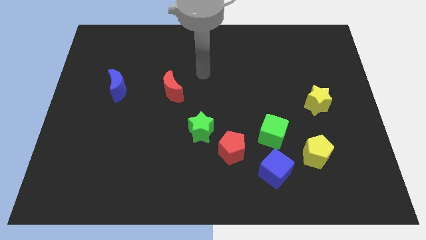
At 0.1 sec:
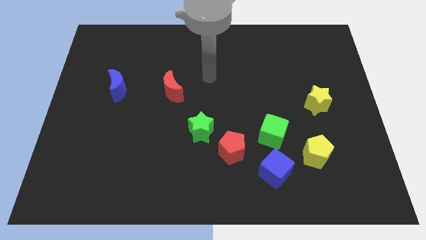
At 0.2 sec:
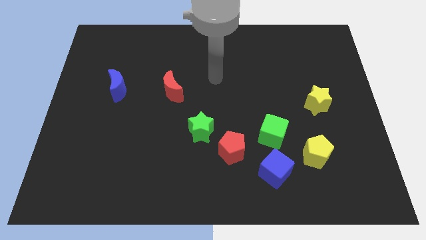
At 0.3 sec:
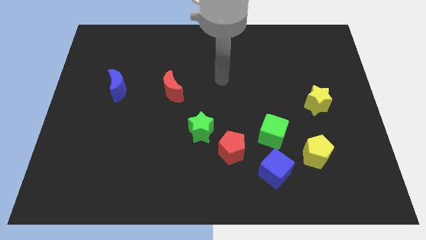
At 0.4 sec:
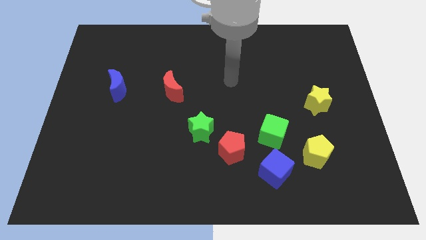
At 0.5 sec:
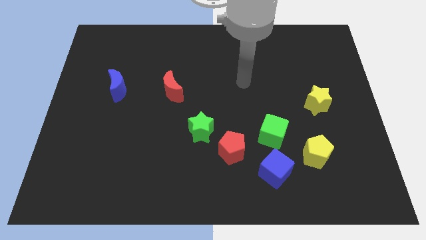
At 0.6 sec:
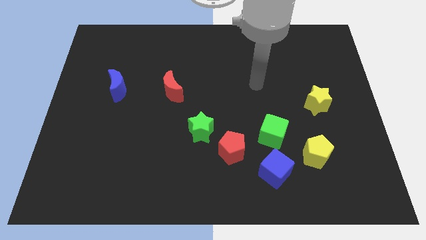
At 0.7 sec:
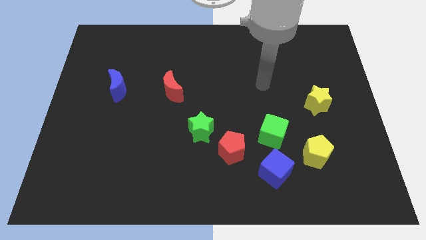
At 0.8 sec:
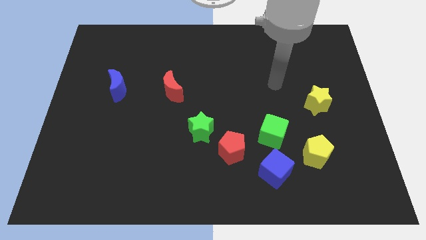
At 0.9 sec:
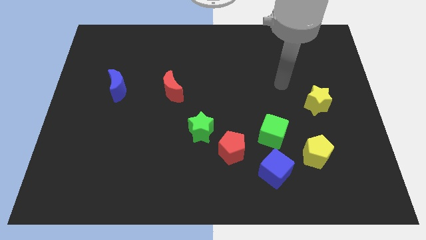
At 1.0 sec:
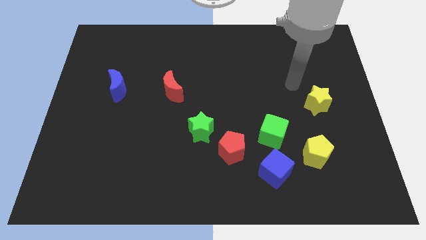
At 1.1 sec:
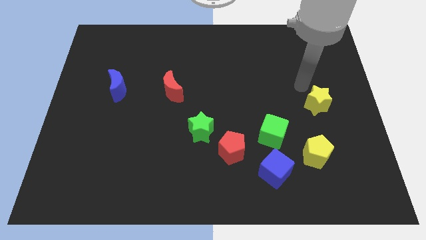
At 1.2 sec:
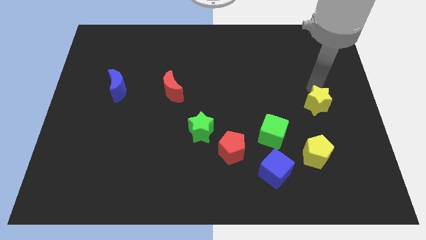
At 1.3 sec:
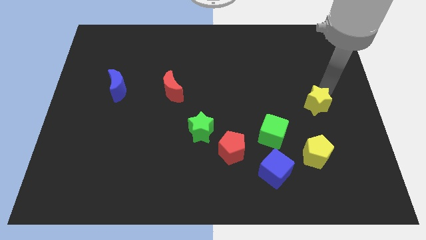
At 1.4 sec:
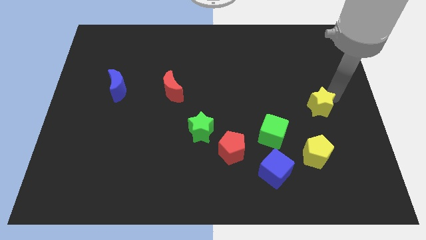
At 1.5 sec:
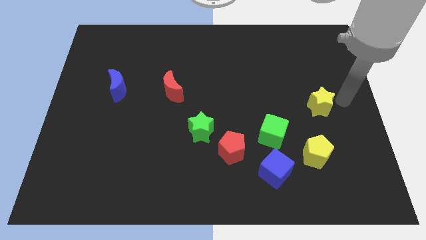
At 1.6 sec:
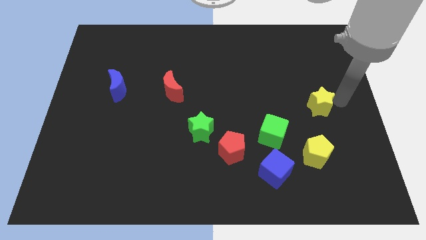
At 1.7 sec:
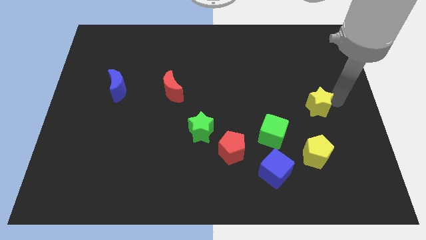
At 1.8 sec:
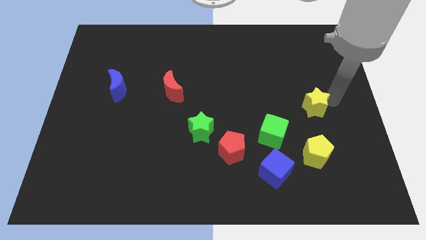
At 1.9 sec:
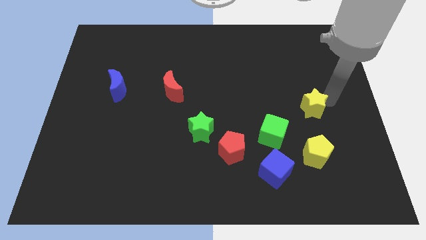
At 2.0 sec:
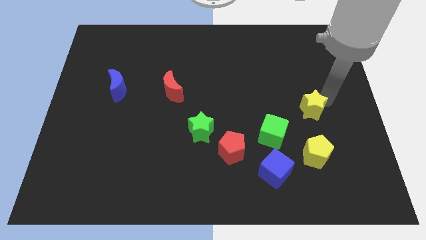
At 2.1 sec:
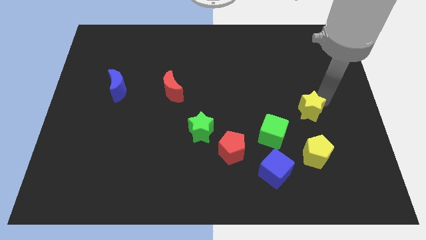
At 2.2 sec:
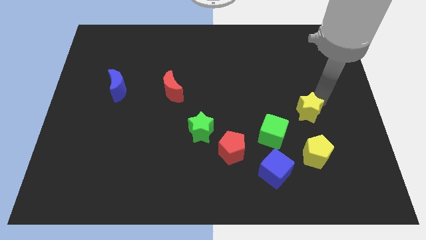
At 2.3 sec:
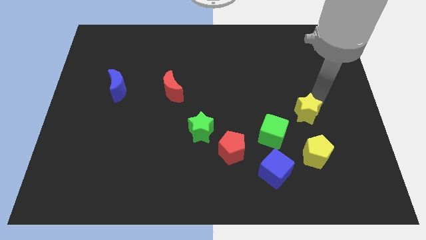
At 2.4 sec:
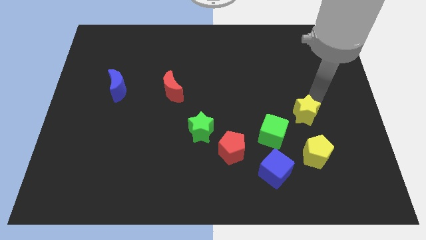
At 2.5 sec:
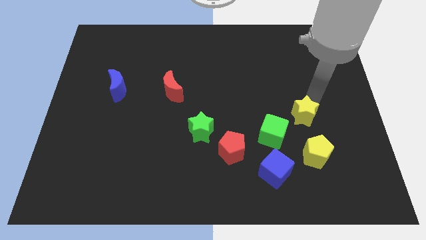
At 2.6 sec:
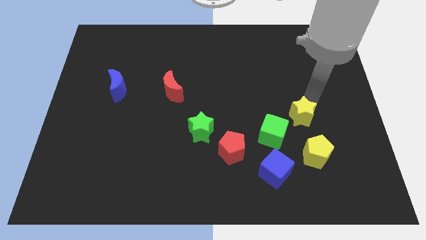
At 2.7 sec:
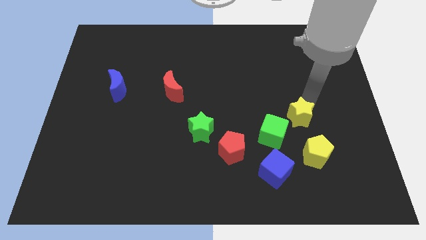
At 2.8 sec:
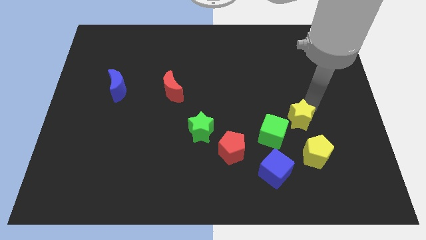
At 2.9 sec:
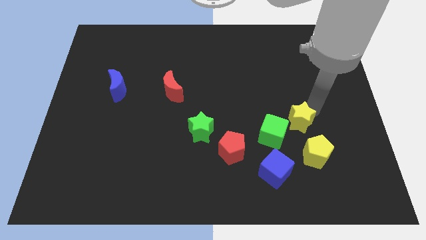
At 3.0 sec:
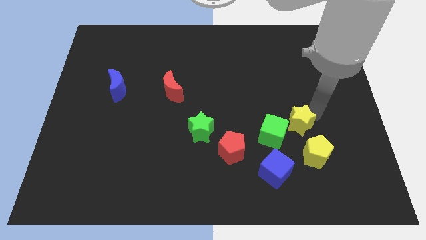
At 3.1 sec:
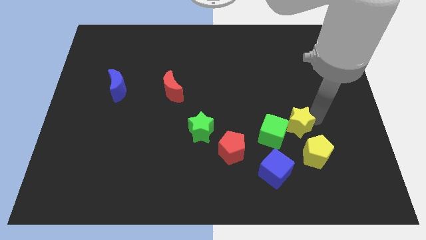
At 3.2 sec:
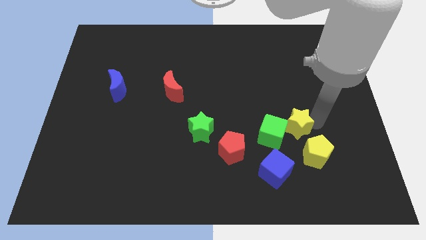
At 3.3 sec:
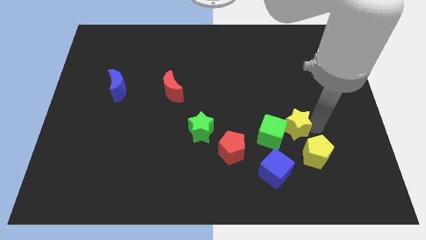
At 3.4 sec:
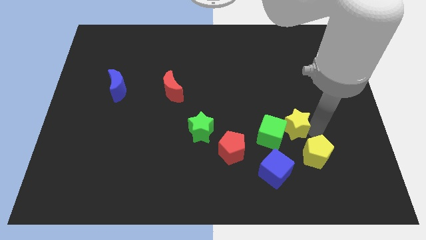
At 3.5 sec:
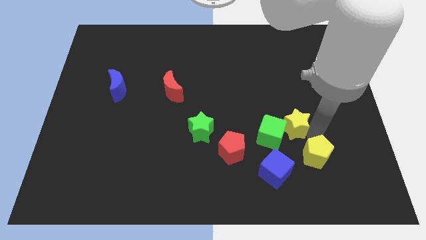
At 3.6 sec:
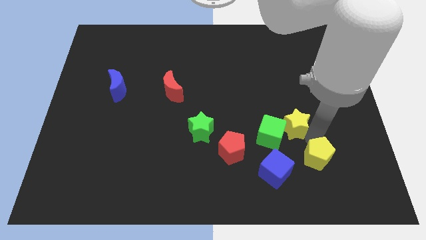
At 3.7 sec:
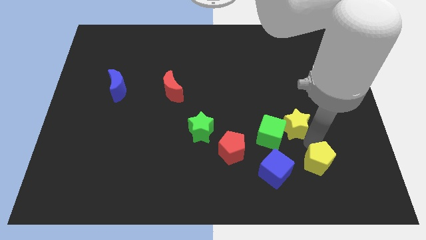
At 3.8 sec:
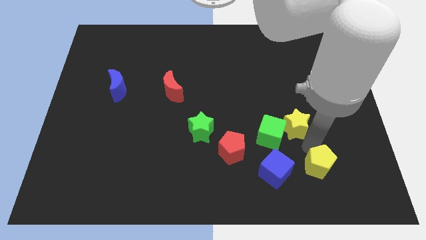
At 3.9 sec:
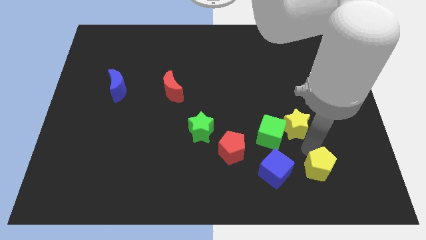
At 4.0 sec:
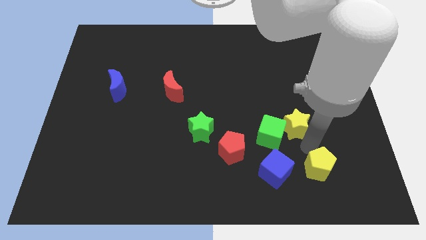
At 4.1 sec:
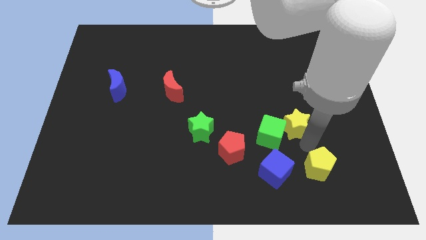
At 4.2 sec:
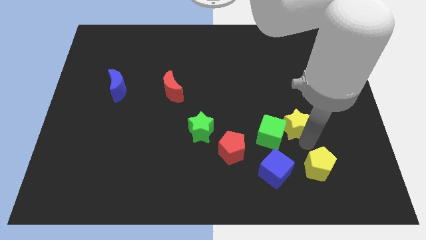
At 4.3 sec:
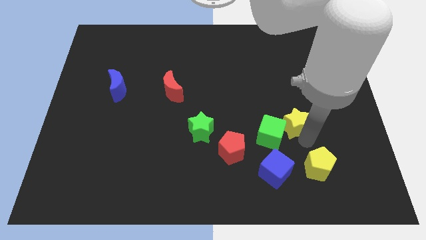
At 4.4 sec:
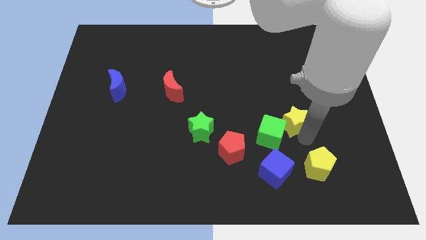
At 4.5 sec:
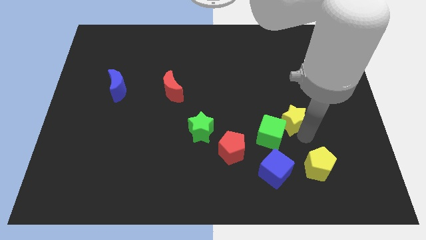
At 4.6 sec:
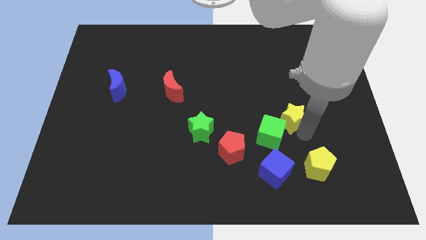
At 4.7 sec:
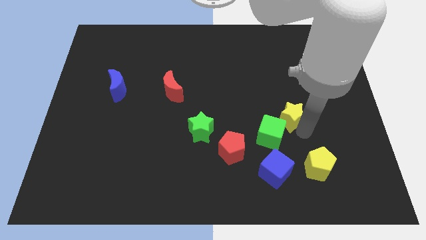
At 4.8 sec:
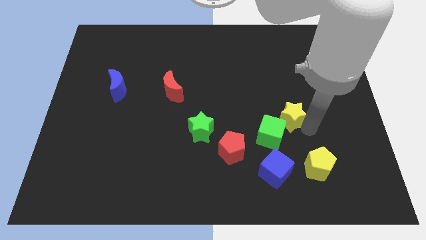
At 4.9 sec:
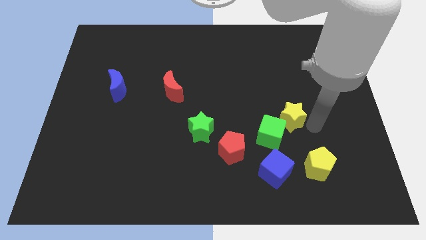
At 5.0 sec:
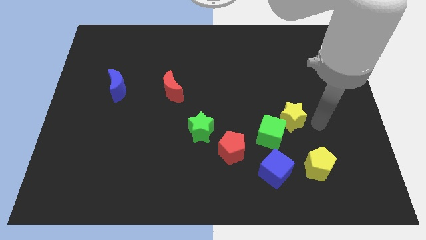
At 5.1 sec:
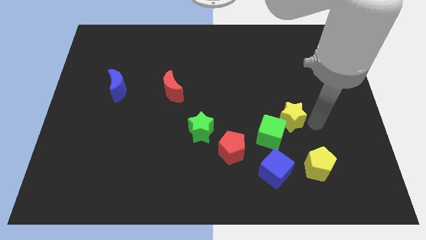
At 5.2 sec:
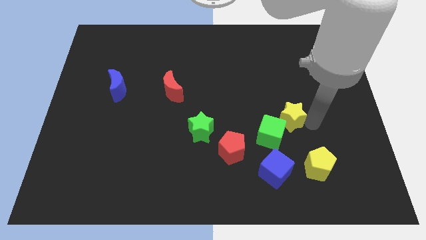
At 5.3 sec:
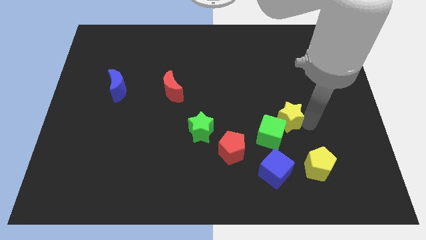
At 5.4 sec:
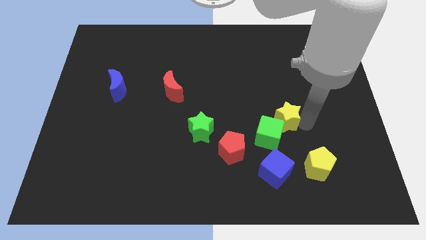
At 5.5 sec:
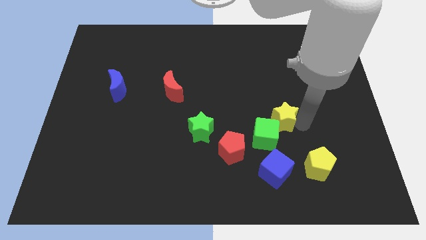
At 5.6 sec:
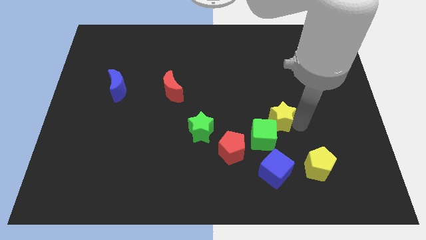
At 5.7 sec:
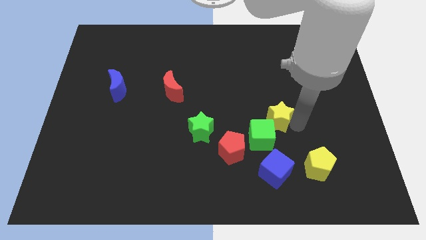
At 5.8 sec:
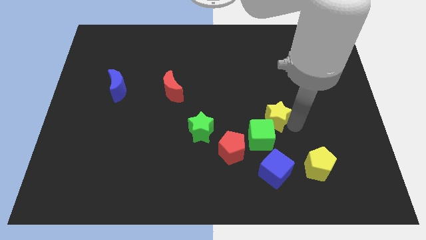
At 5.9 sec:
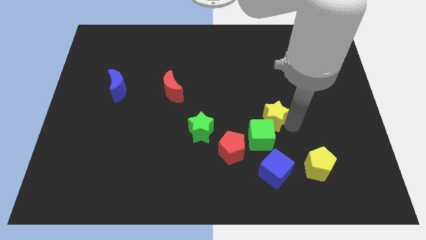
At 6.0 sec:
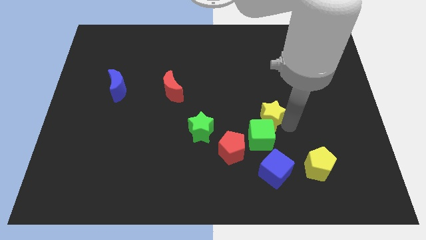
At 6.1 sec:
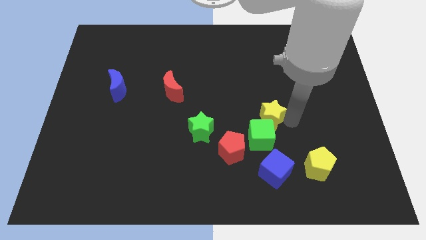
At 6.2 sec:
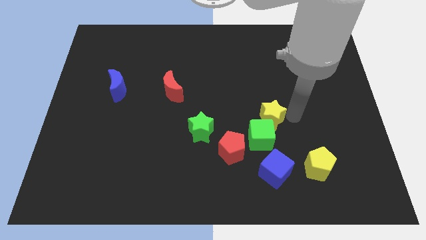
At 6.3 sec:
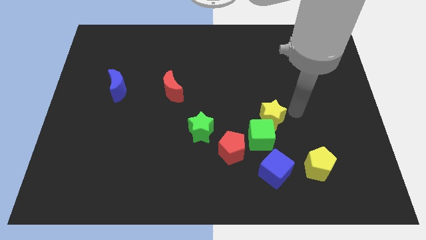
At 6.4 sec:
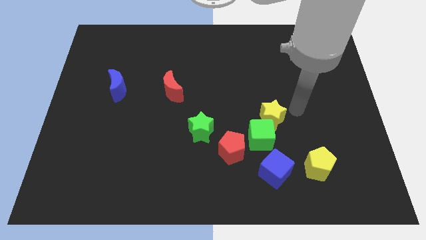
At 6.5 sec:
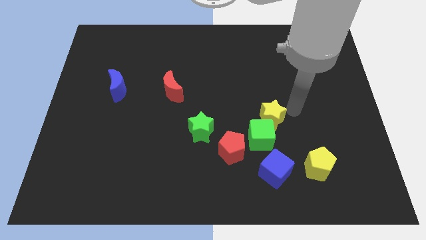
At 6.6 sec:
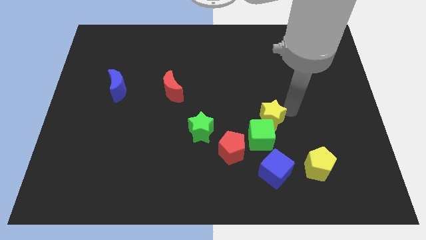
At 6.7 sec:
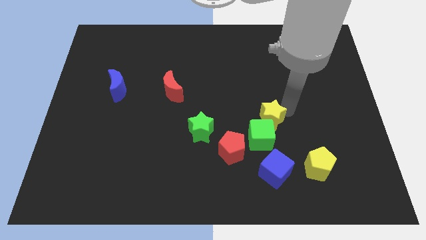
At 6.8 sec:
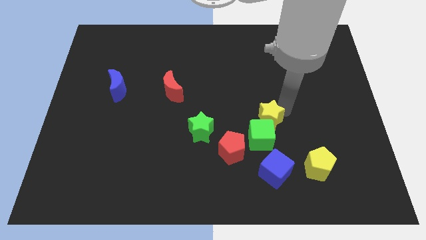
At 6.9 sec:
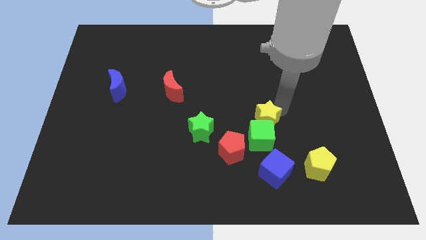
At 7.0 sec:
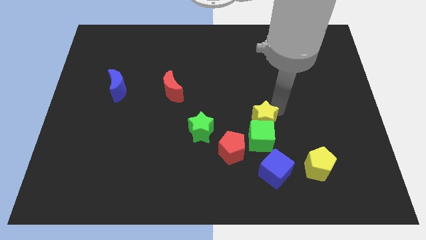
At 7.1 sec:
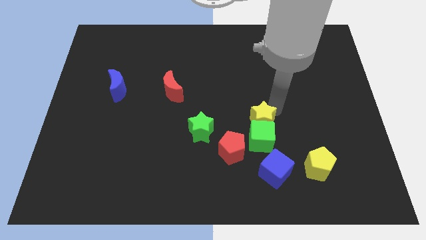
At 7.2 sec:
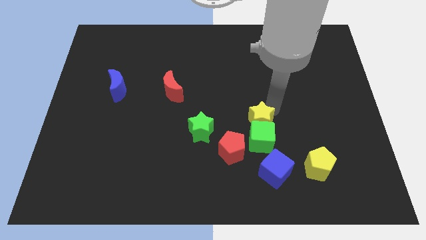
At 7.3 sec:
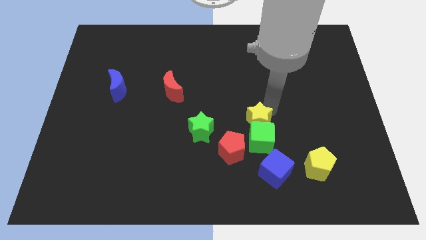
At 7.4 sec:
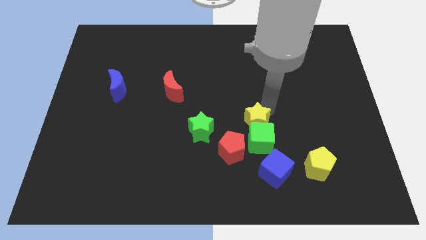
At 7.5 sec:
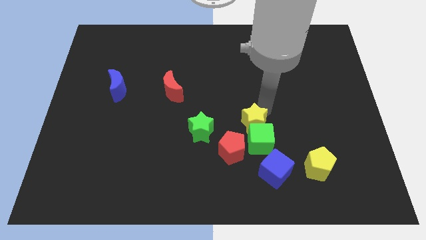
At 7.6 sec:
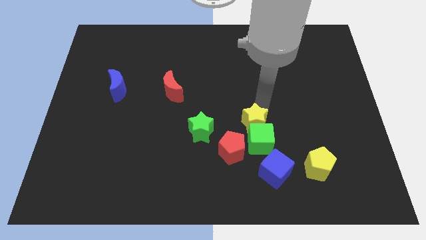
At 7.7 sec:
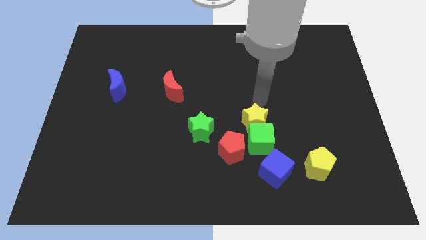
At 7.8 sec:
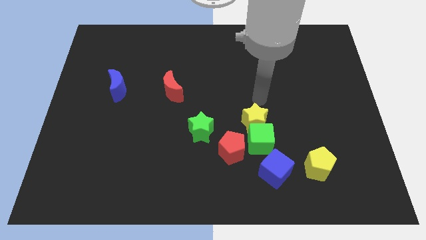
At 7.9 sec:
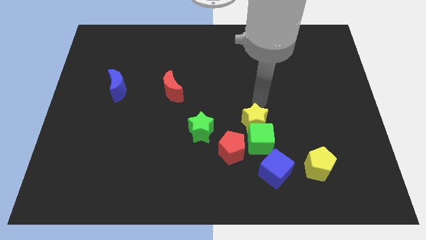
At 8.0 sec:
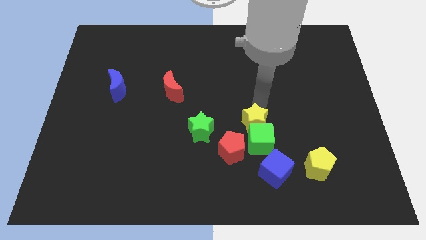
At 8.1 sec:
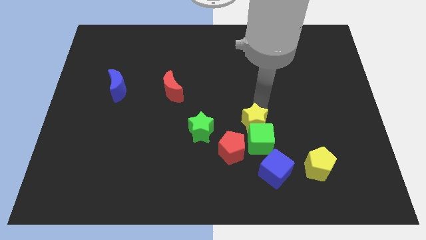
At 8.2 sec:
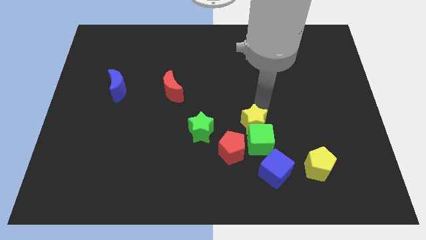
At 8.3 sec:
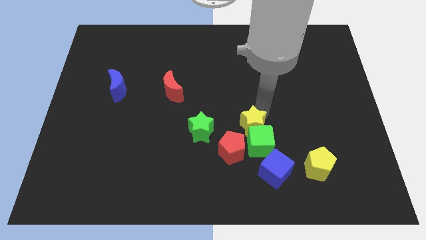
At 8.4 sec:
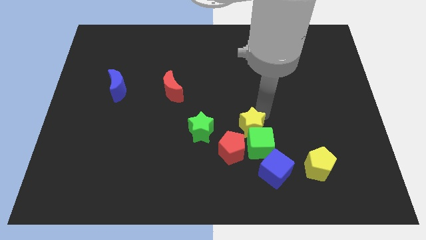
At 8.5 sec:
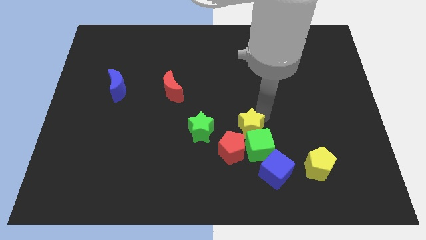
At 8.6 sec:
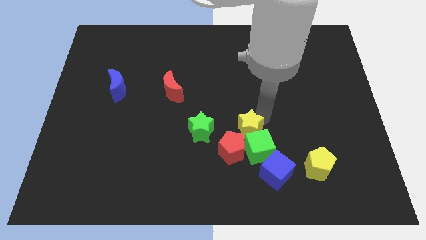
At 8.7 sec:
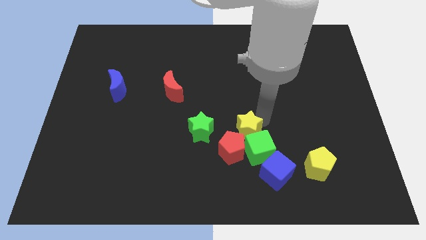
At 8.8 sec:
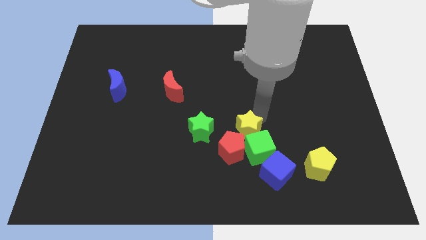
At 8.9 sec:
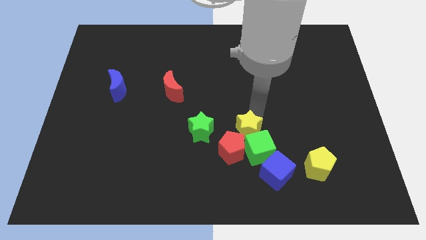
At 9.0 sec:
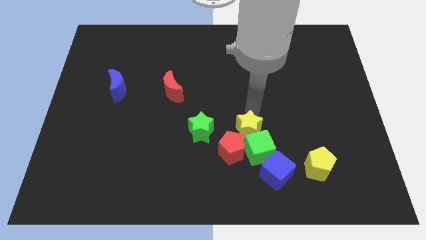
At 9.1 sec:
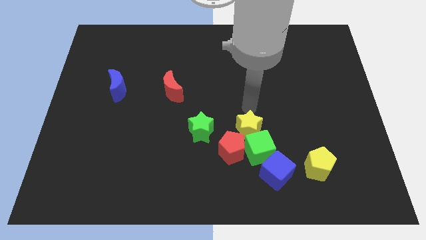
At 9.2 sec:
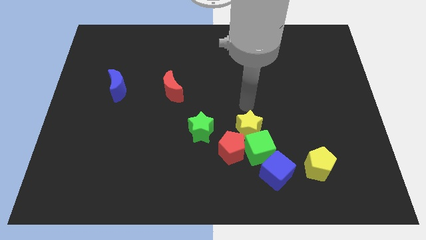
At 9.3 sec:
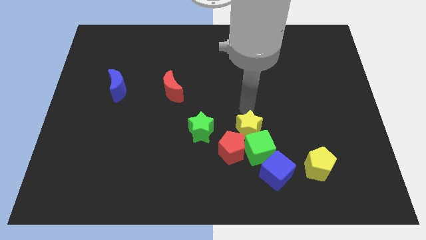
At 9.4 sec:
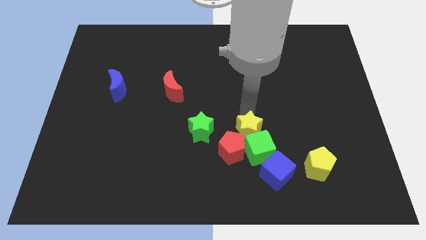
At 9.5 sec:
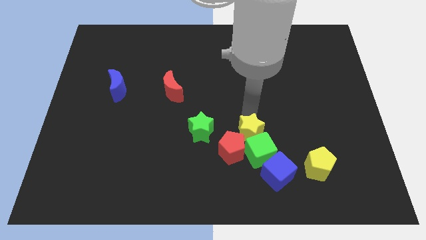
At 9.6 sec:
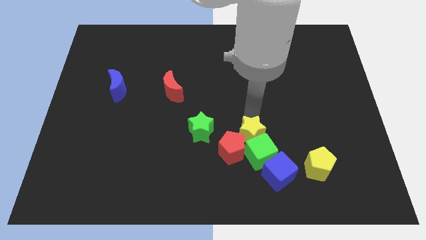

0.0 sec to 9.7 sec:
move the yellow star towards the red pentagon
